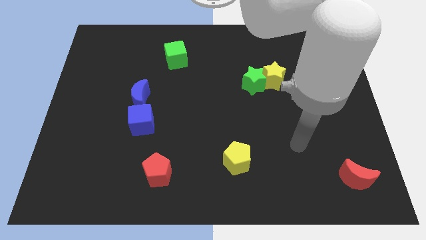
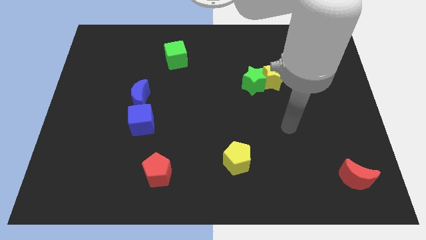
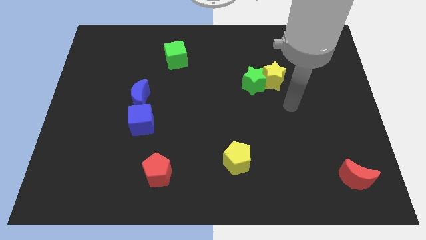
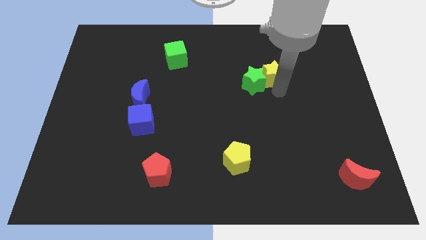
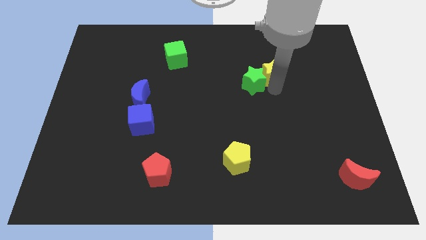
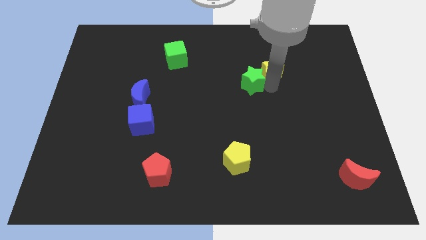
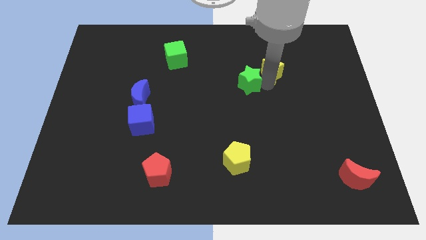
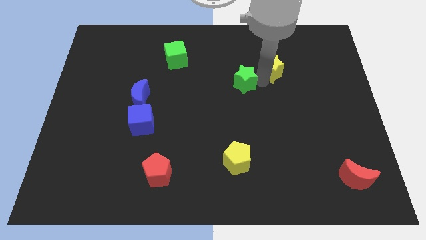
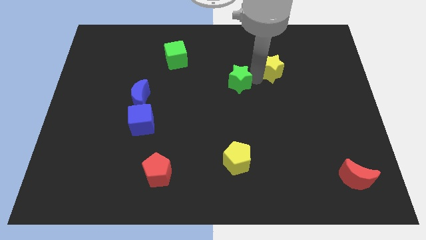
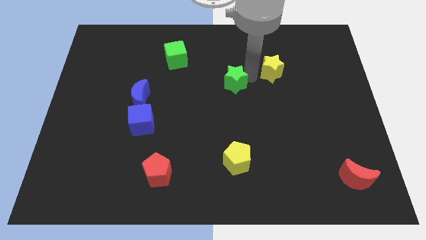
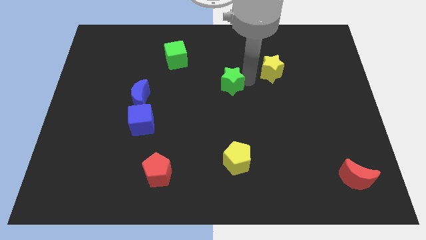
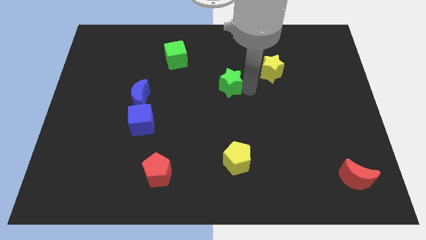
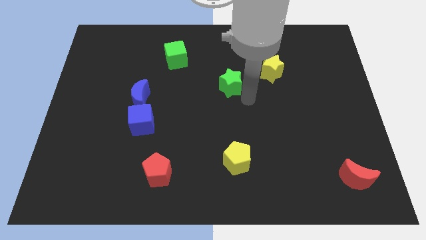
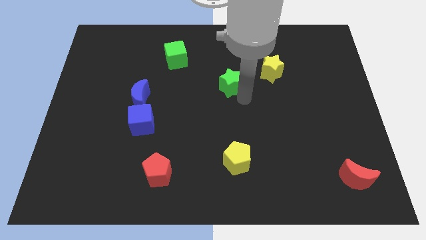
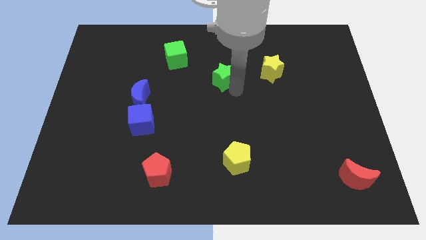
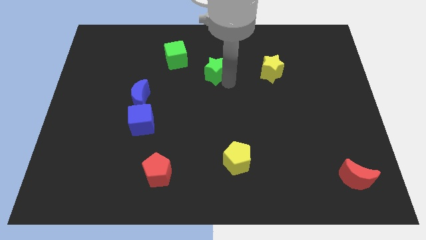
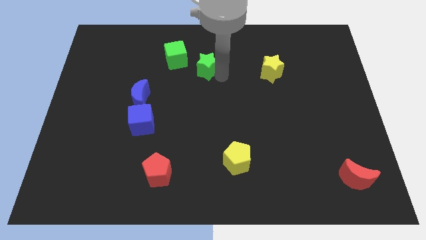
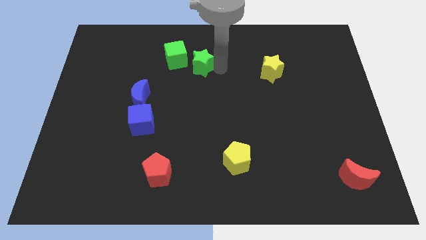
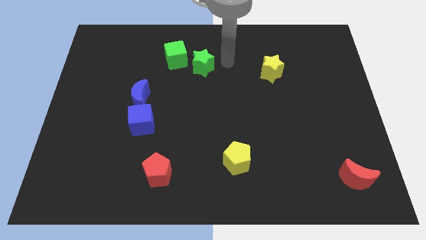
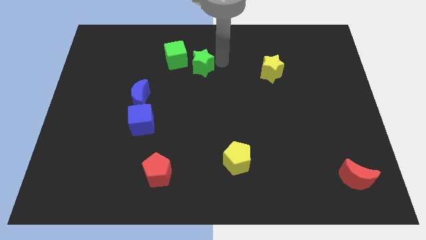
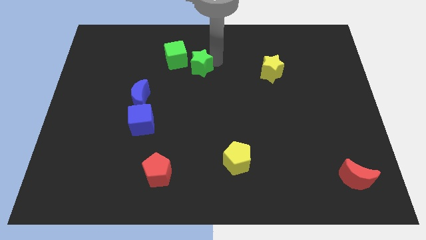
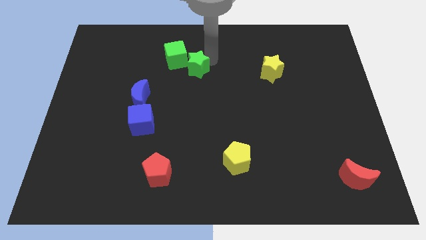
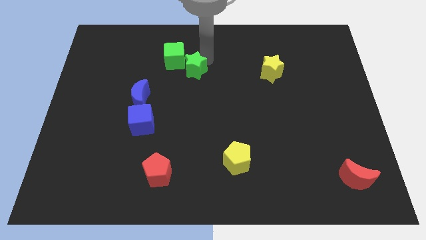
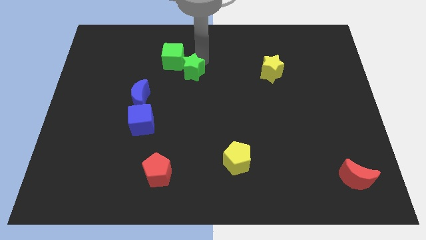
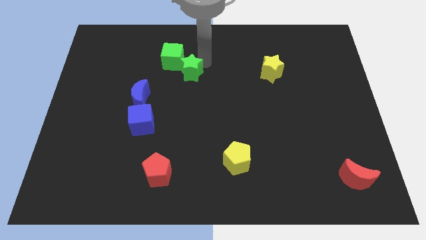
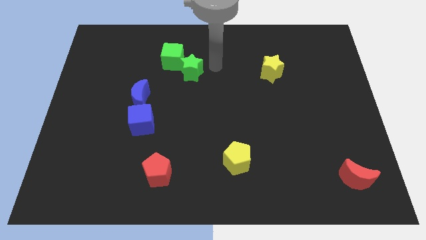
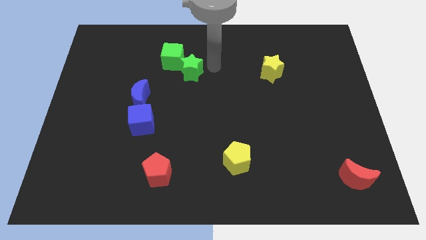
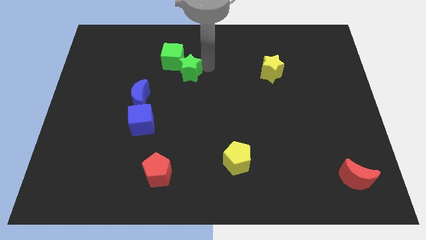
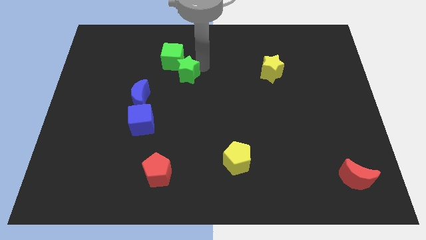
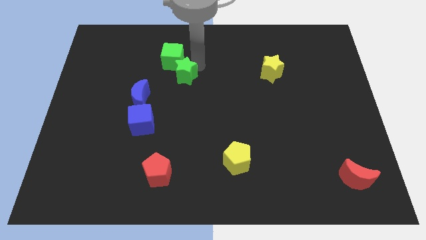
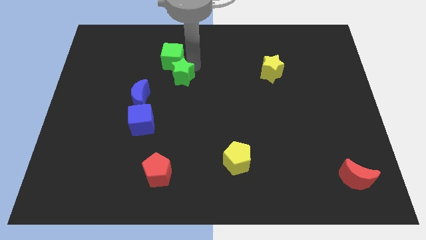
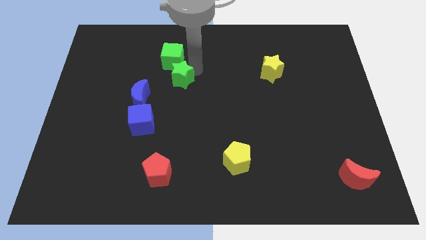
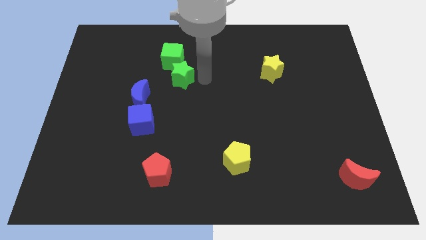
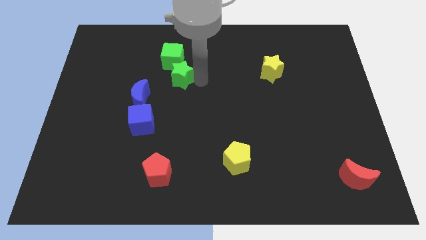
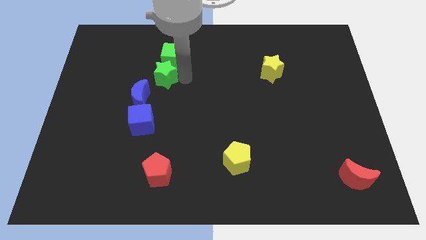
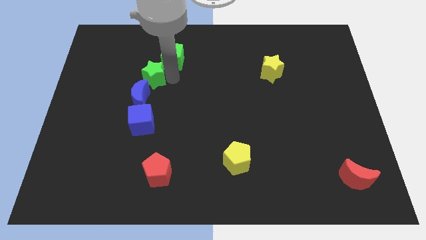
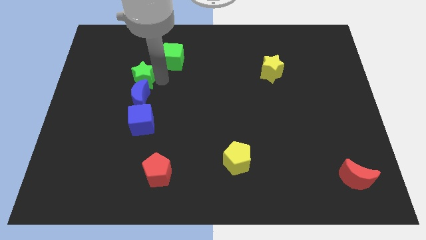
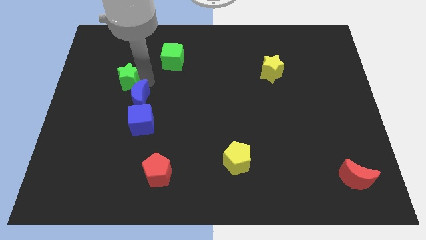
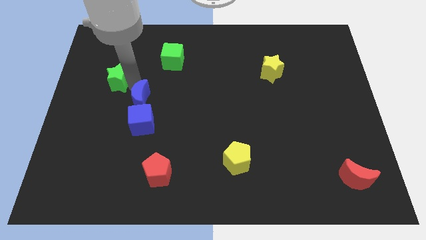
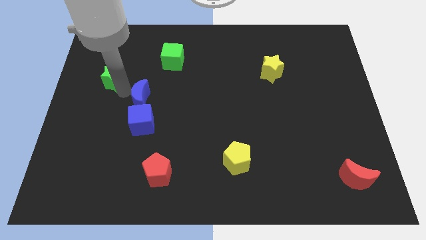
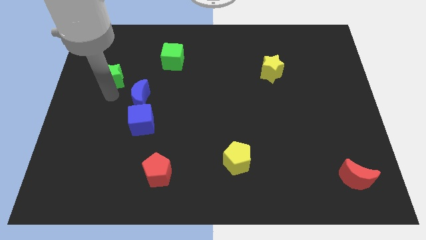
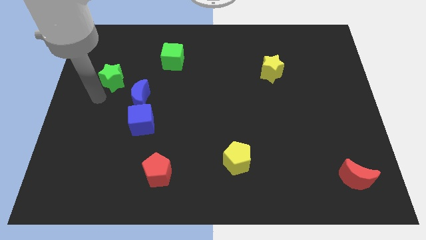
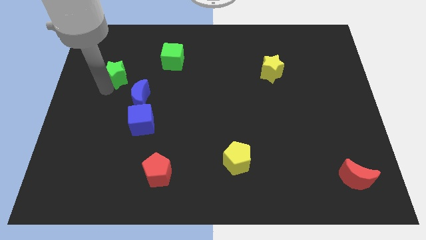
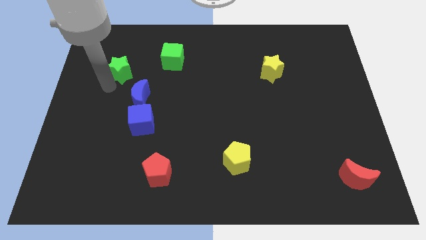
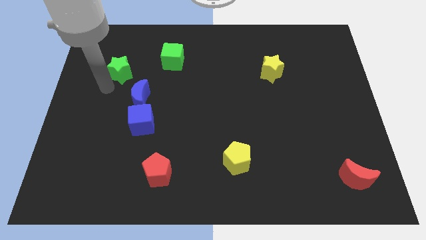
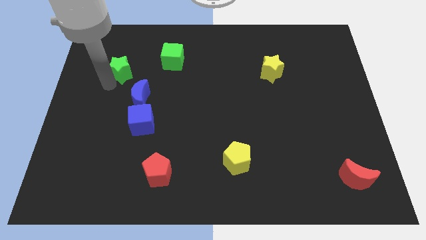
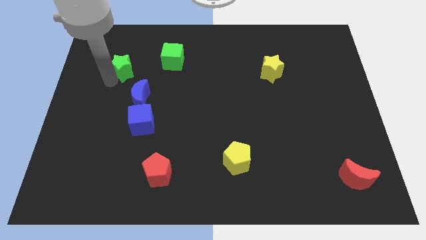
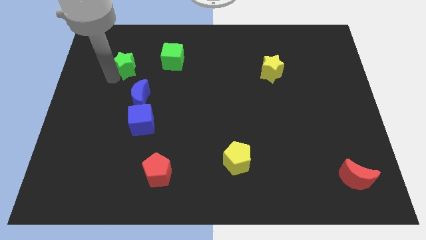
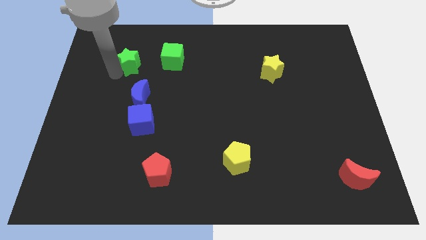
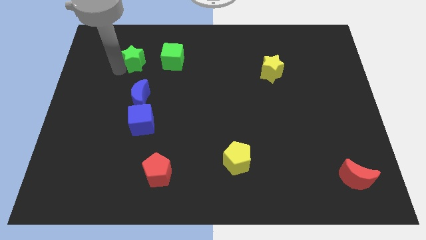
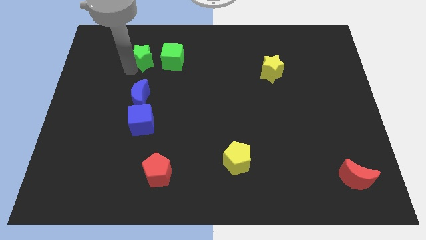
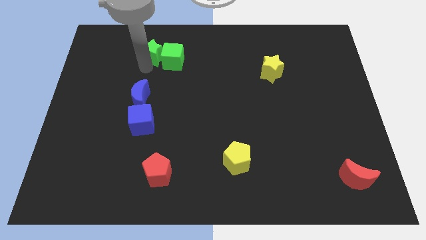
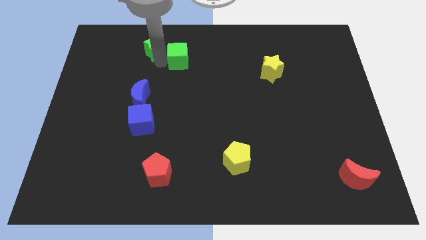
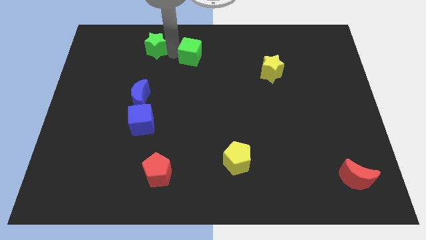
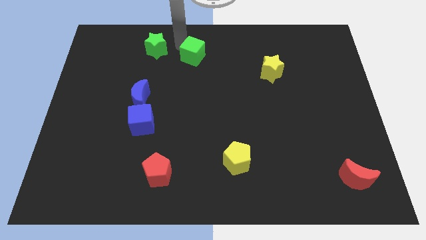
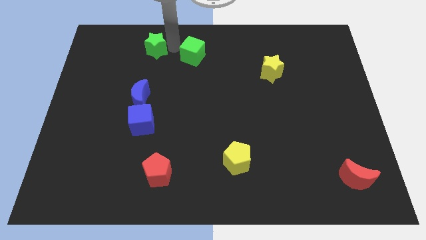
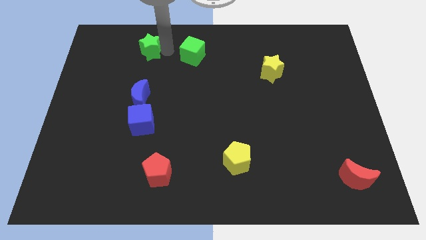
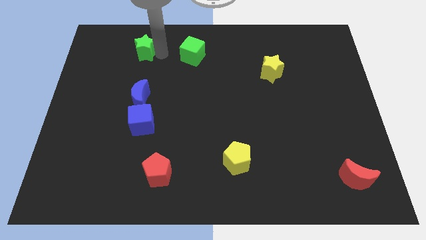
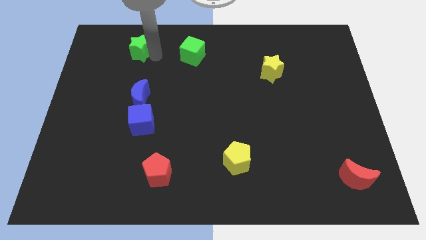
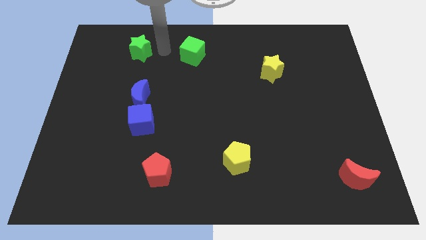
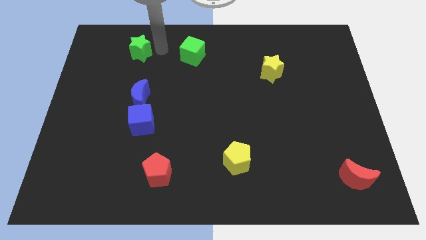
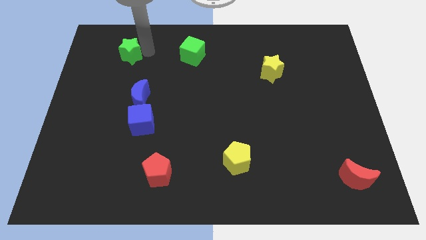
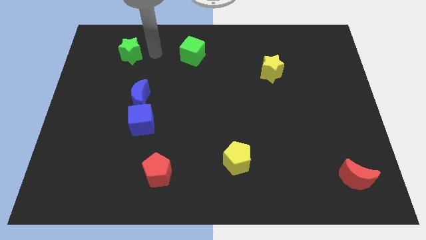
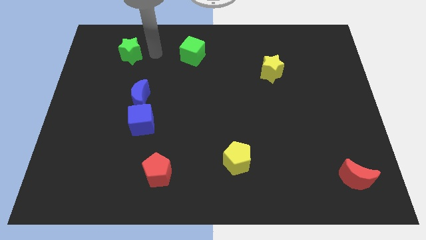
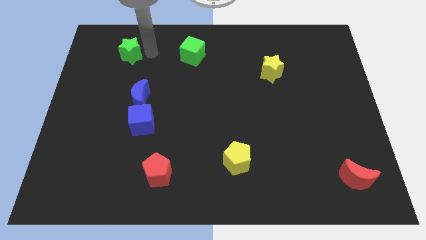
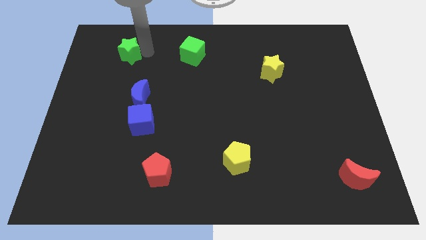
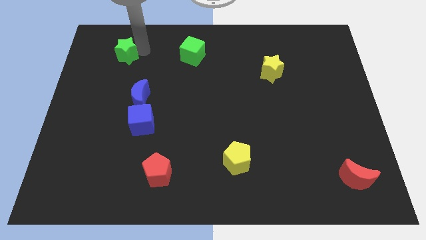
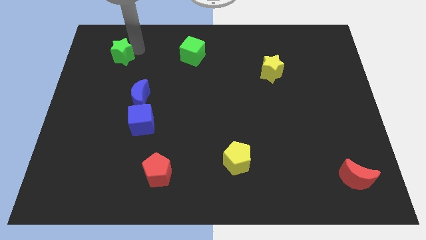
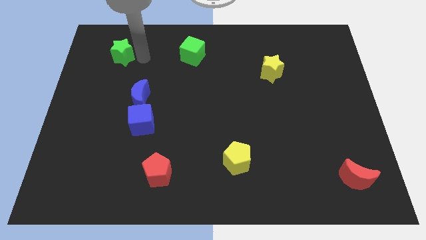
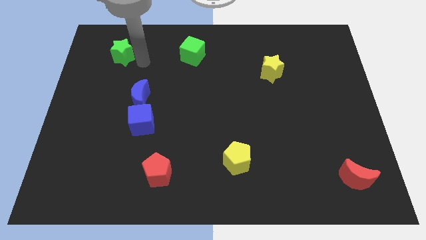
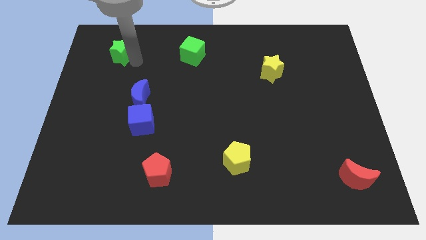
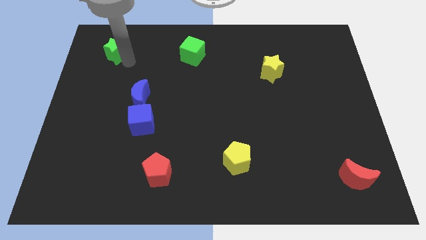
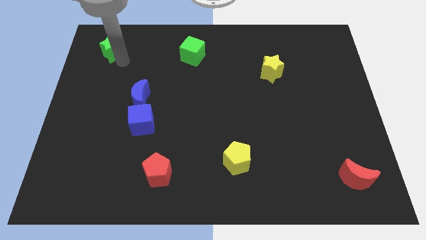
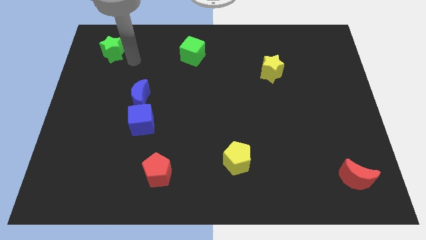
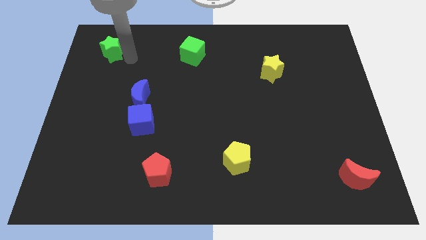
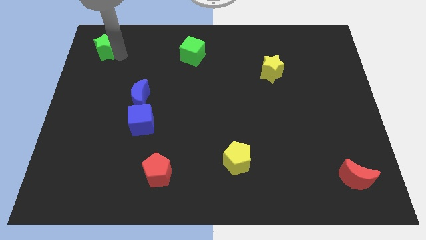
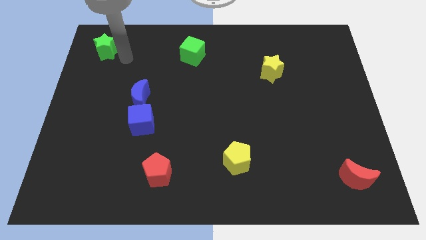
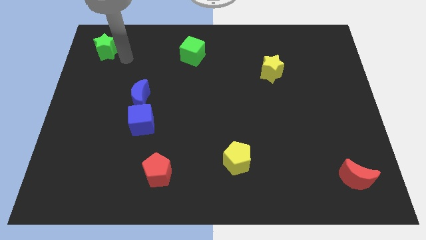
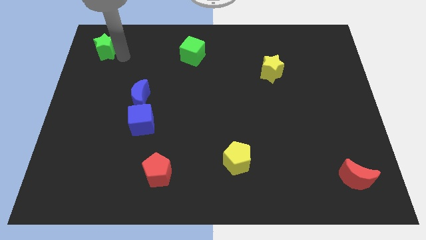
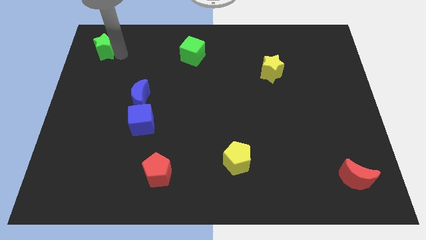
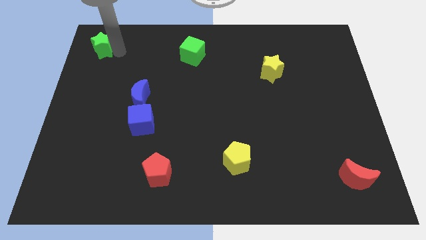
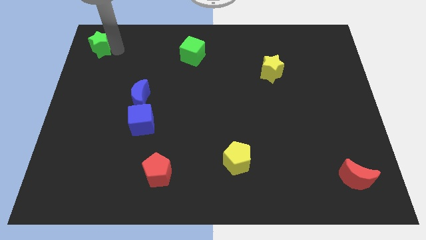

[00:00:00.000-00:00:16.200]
move the green star to the top left
